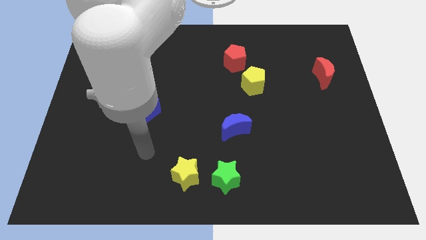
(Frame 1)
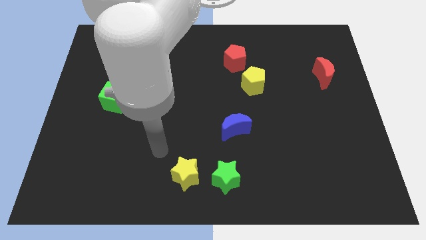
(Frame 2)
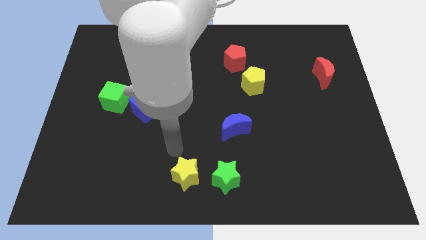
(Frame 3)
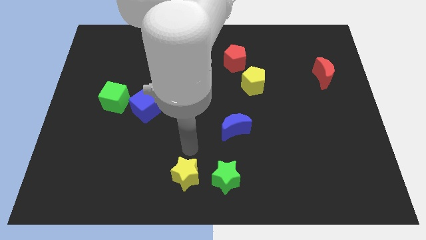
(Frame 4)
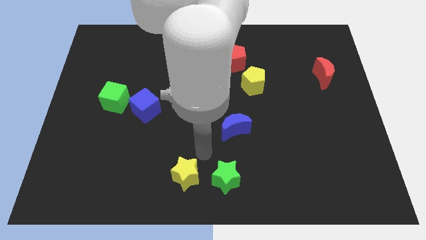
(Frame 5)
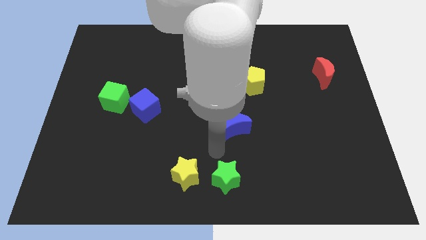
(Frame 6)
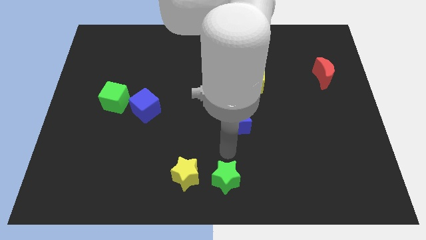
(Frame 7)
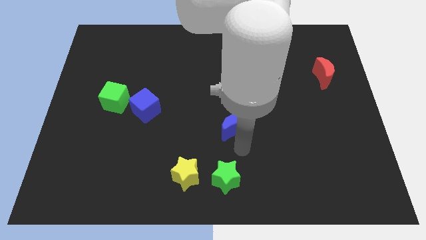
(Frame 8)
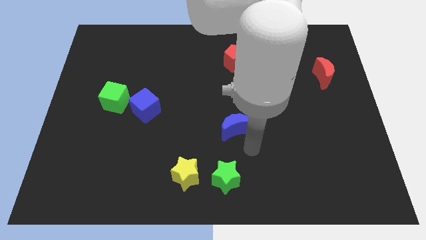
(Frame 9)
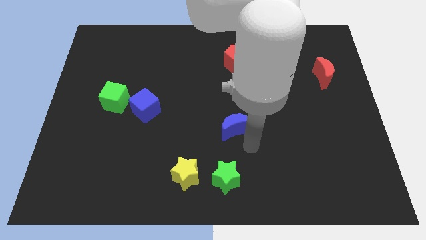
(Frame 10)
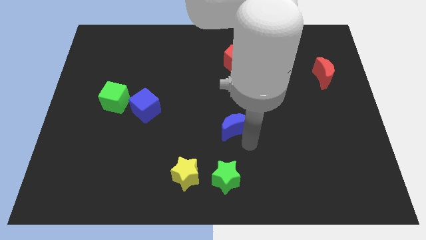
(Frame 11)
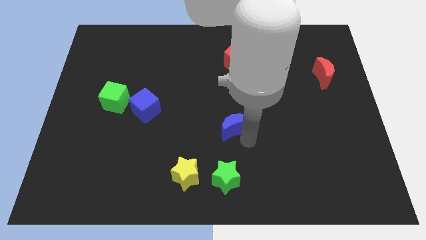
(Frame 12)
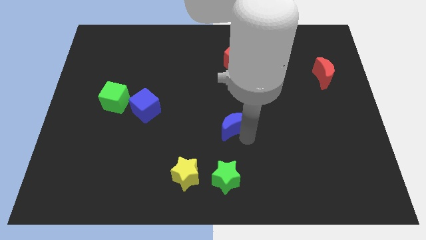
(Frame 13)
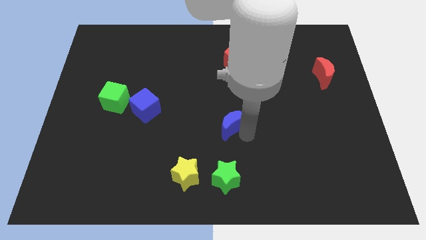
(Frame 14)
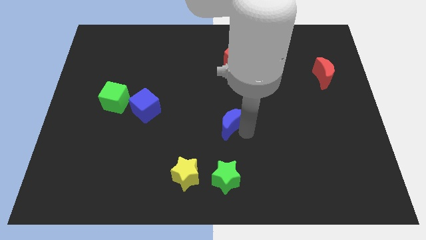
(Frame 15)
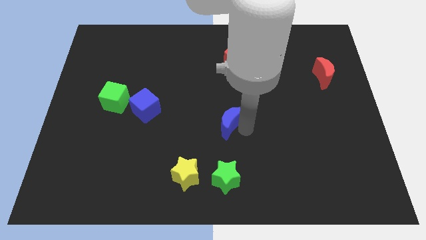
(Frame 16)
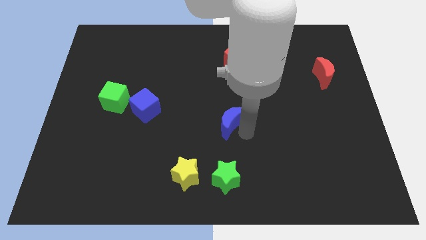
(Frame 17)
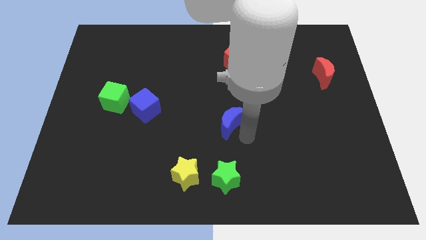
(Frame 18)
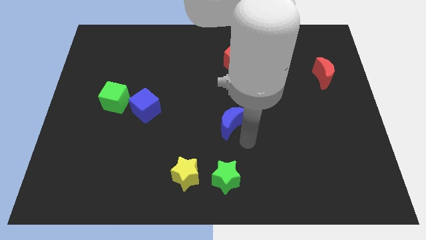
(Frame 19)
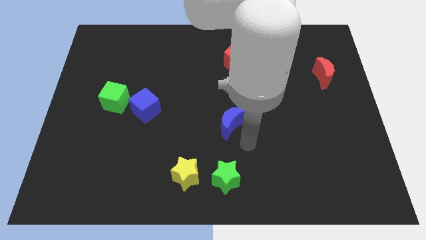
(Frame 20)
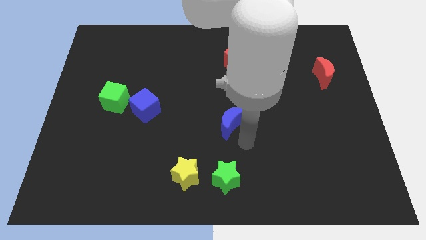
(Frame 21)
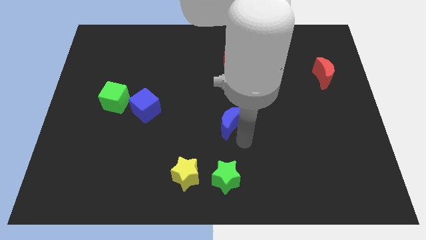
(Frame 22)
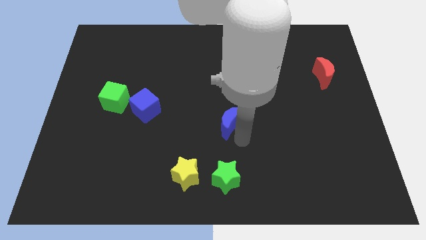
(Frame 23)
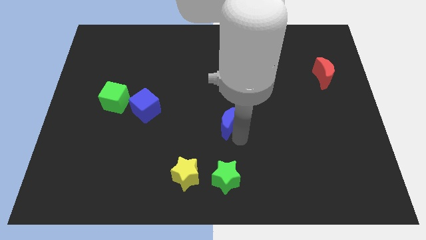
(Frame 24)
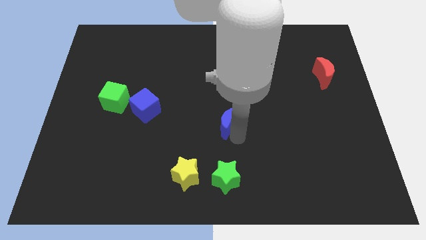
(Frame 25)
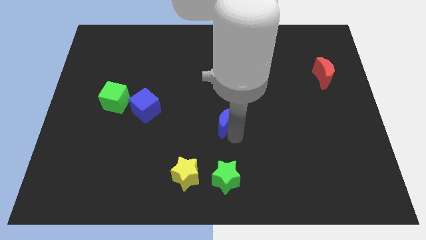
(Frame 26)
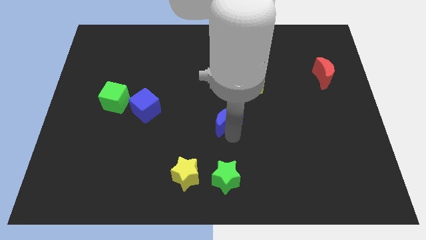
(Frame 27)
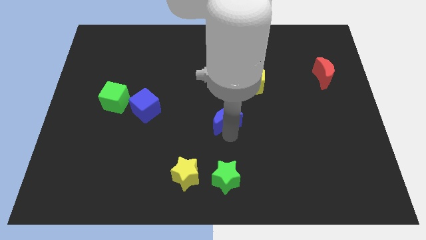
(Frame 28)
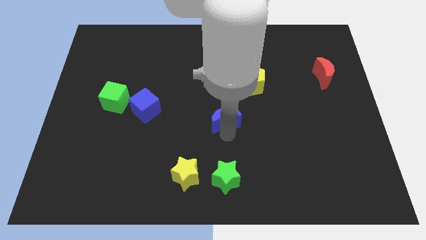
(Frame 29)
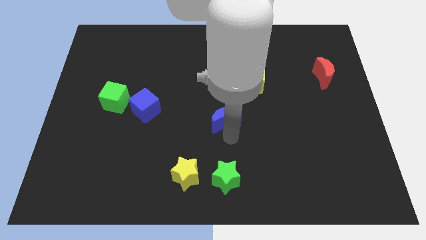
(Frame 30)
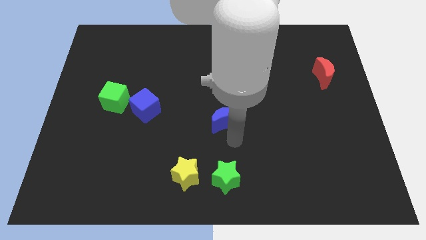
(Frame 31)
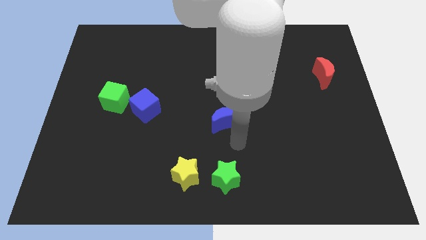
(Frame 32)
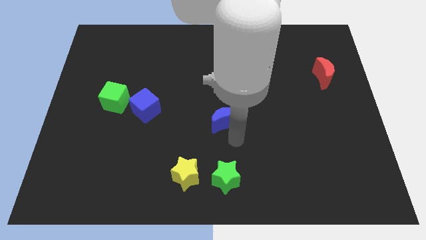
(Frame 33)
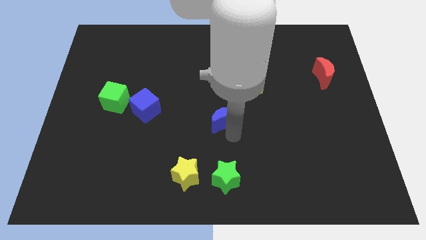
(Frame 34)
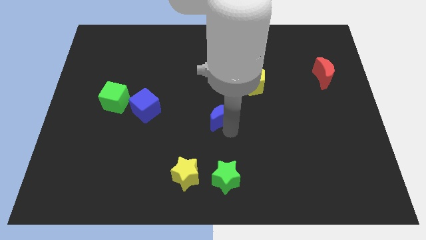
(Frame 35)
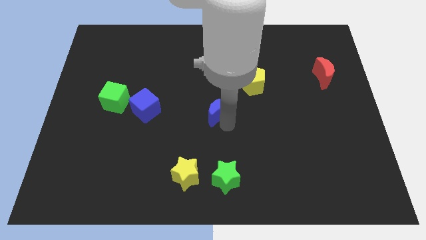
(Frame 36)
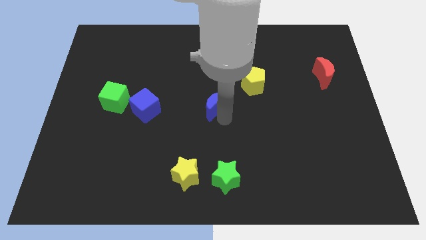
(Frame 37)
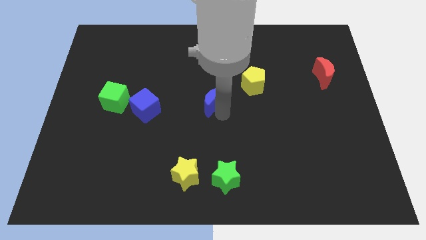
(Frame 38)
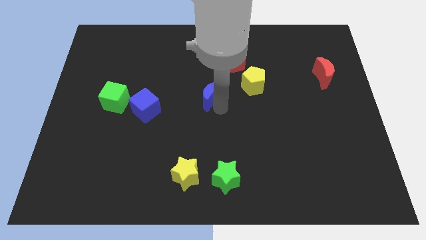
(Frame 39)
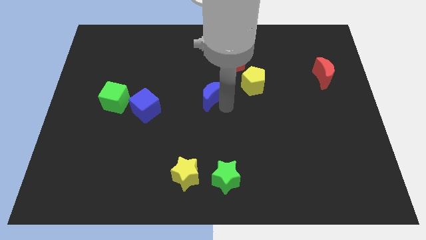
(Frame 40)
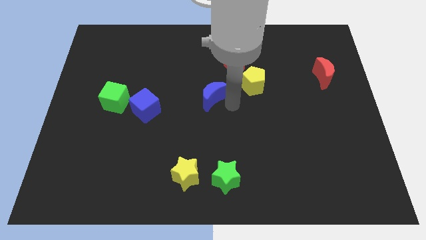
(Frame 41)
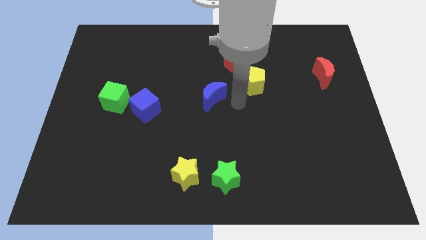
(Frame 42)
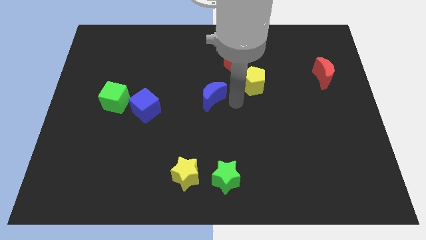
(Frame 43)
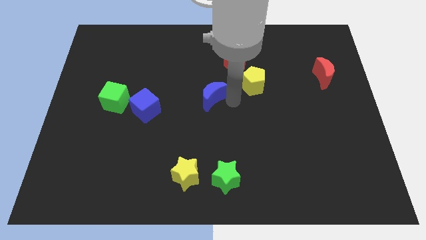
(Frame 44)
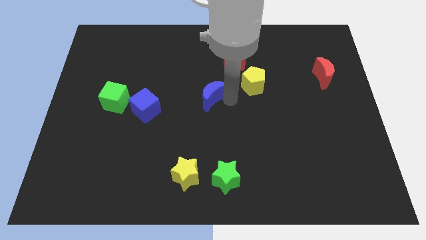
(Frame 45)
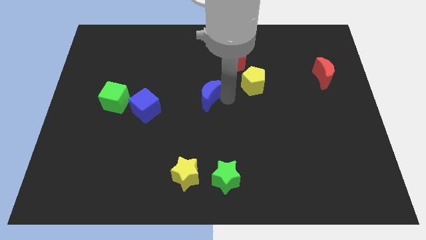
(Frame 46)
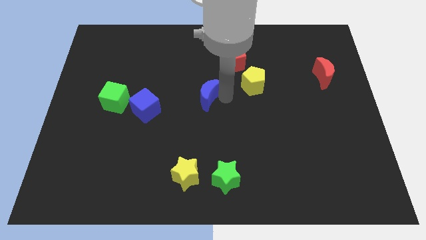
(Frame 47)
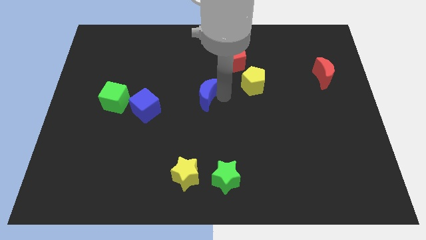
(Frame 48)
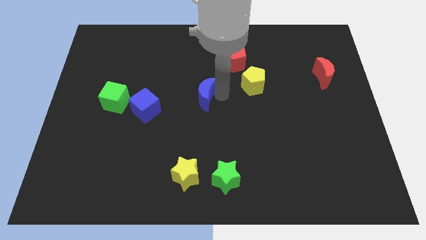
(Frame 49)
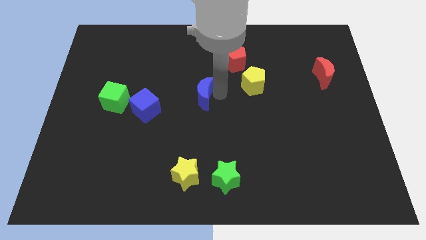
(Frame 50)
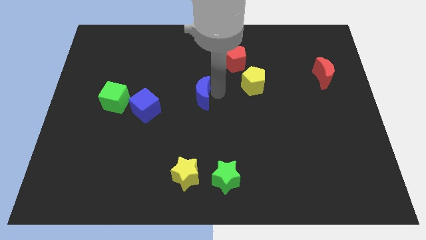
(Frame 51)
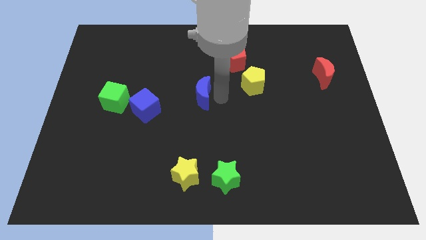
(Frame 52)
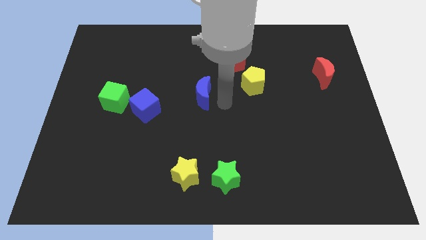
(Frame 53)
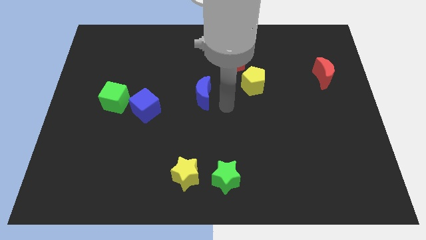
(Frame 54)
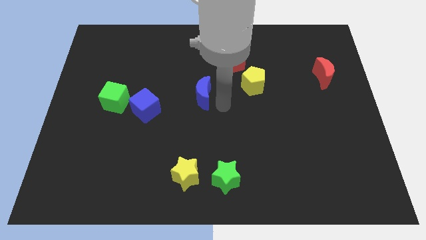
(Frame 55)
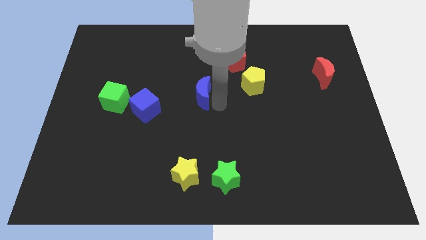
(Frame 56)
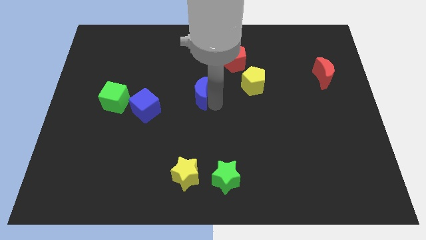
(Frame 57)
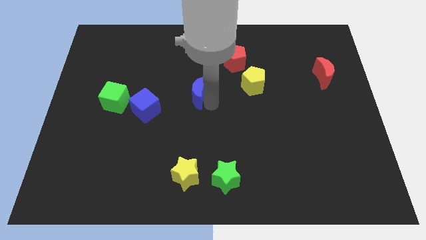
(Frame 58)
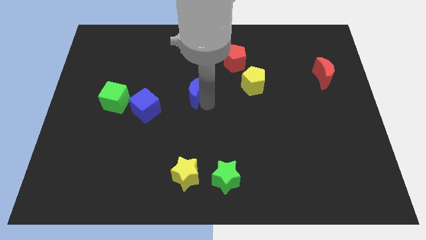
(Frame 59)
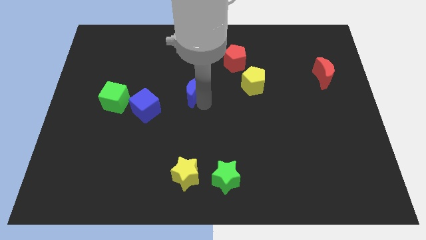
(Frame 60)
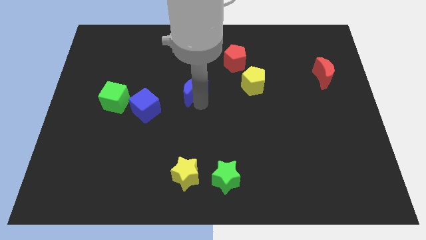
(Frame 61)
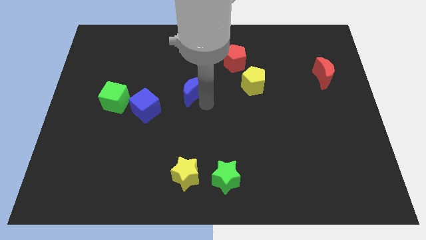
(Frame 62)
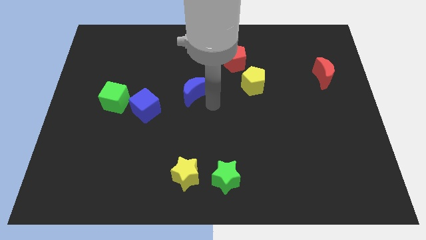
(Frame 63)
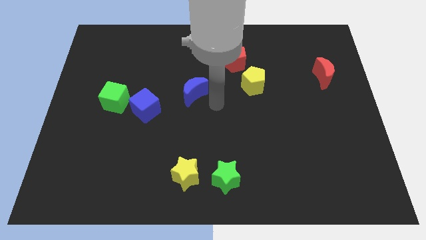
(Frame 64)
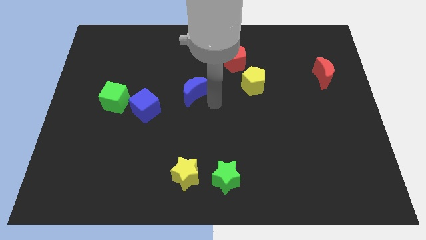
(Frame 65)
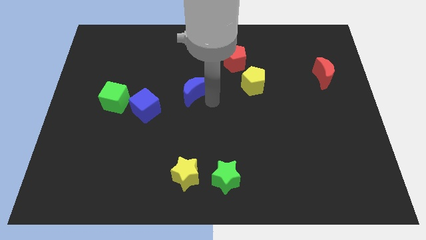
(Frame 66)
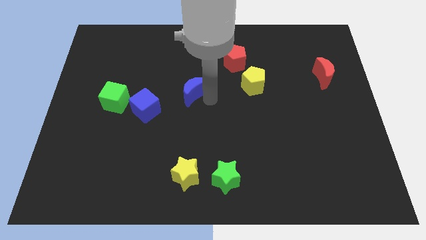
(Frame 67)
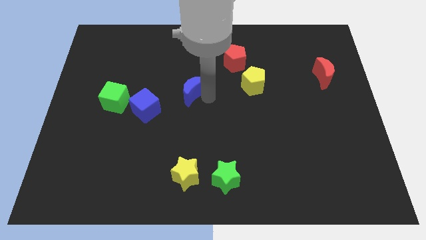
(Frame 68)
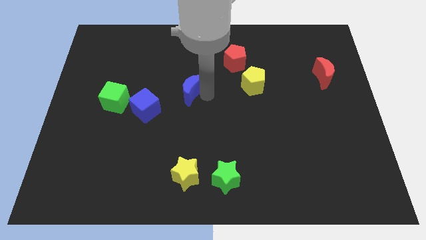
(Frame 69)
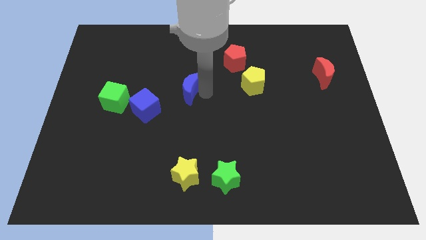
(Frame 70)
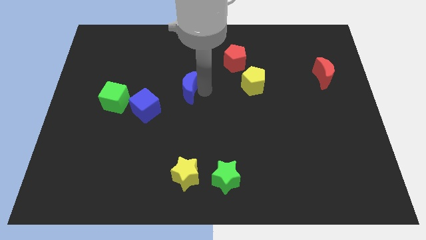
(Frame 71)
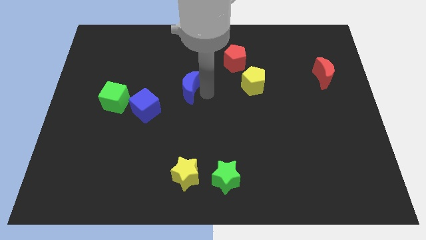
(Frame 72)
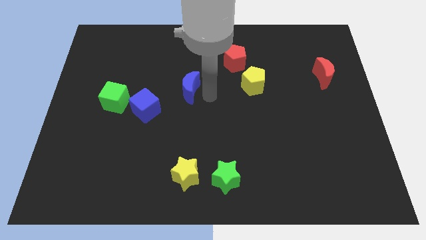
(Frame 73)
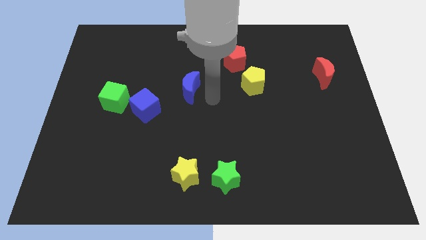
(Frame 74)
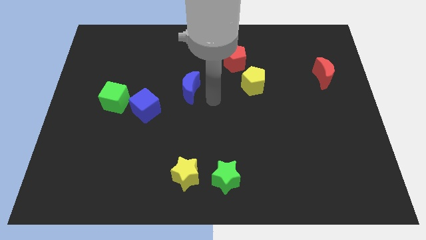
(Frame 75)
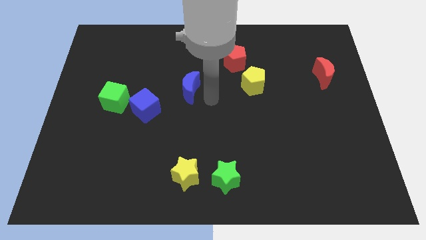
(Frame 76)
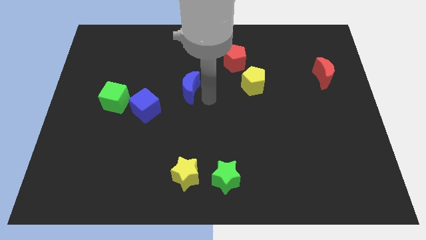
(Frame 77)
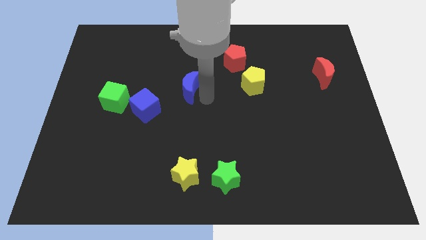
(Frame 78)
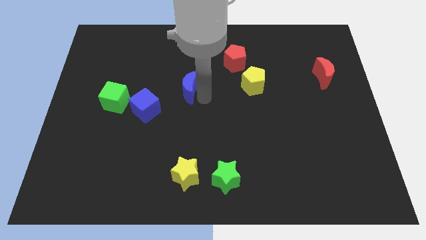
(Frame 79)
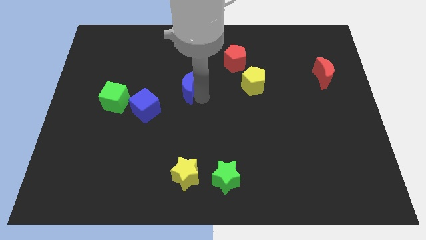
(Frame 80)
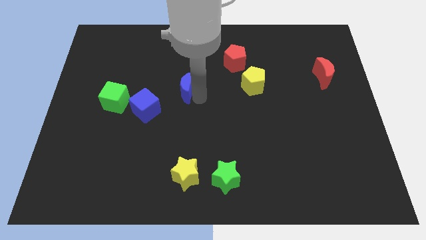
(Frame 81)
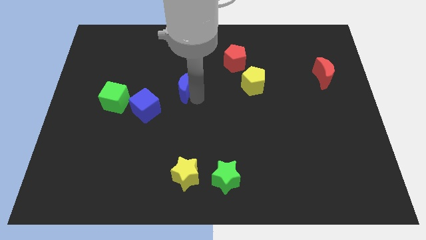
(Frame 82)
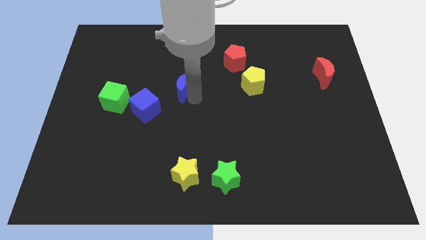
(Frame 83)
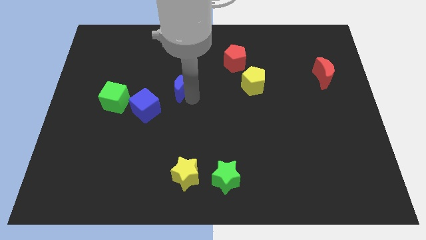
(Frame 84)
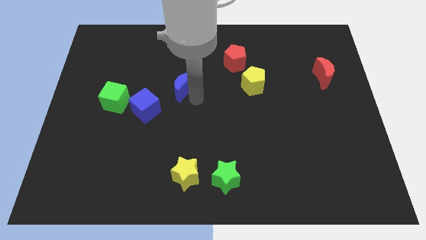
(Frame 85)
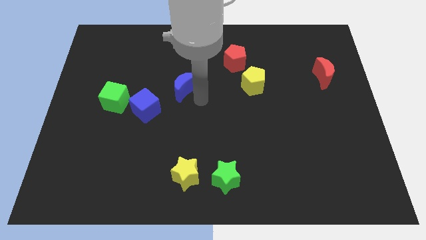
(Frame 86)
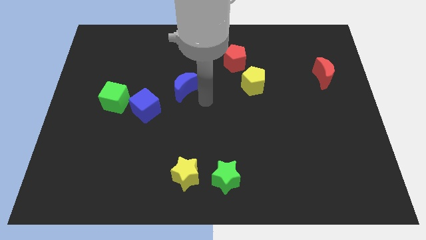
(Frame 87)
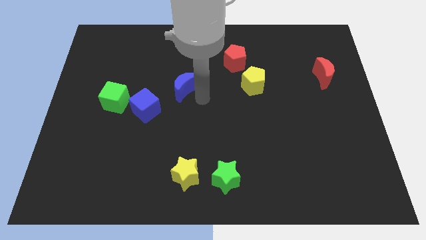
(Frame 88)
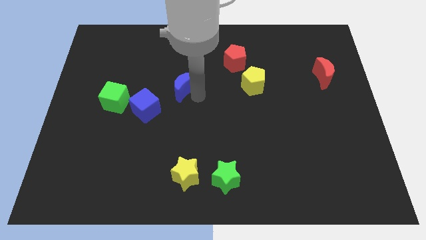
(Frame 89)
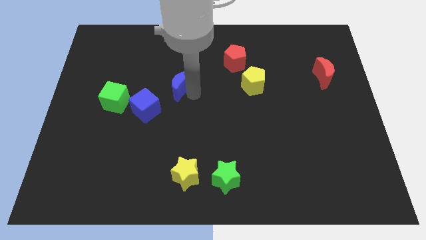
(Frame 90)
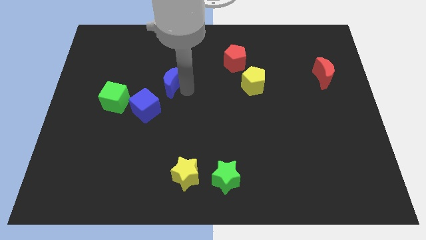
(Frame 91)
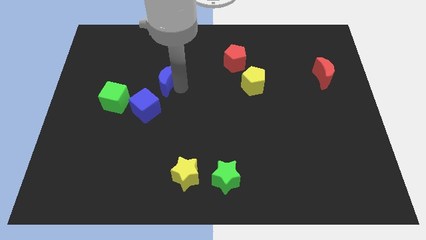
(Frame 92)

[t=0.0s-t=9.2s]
slide the blue moon above the blue cube
